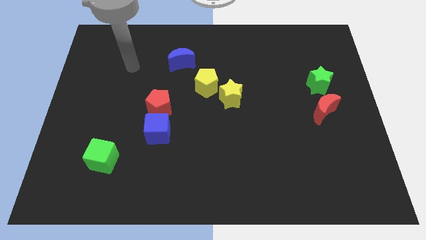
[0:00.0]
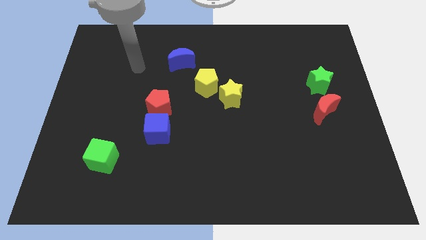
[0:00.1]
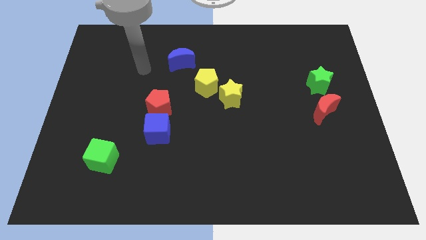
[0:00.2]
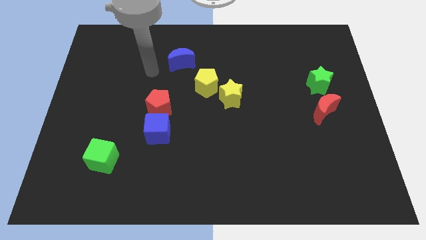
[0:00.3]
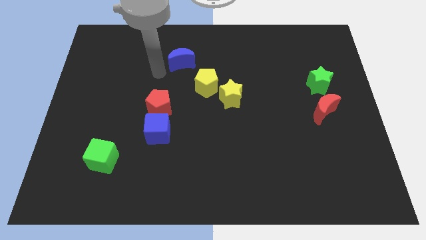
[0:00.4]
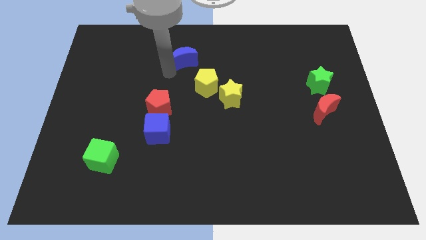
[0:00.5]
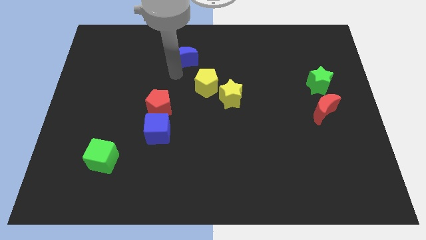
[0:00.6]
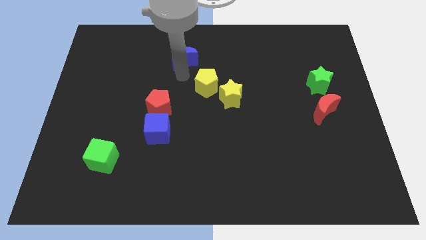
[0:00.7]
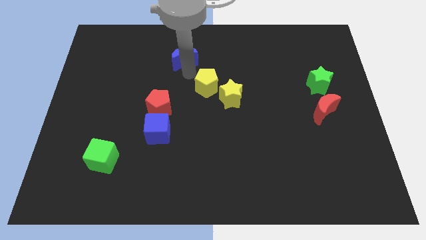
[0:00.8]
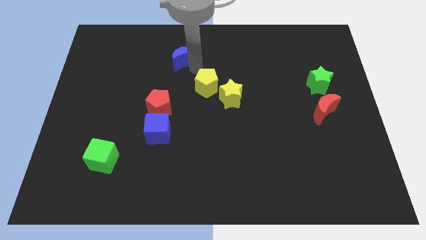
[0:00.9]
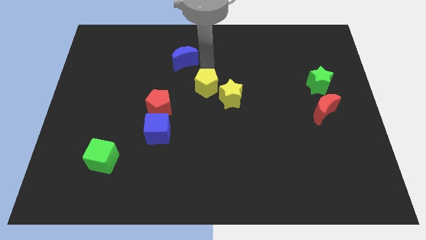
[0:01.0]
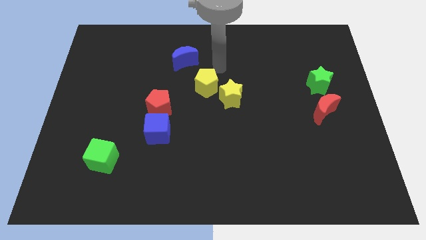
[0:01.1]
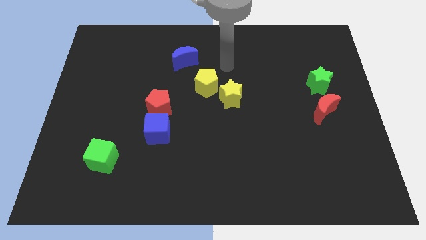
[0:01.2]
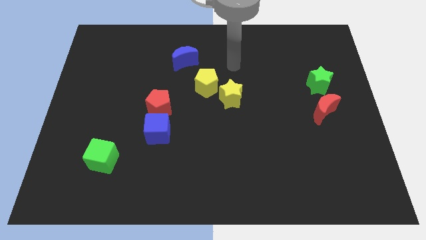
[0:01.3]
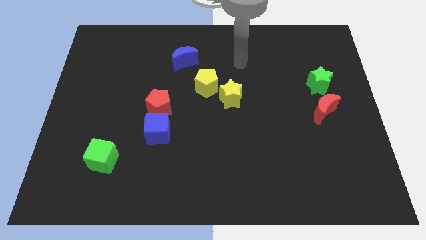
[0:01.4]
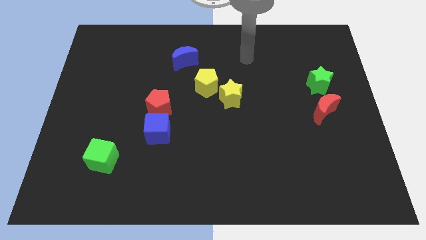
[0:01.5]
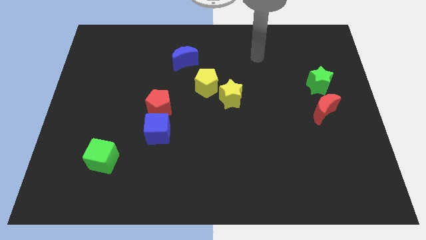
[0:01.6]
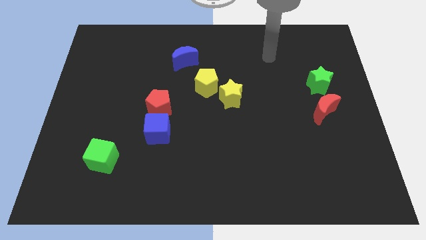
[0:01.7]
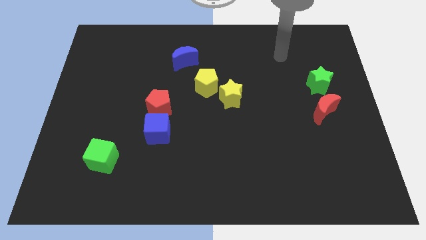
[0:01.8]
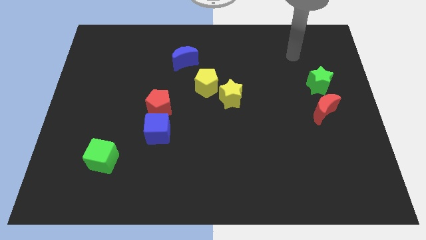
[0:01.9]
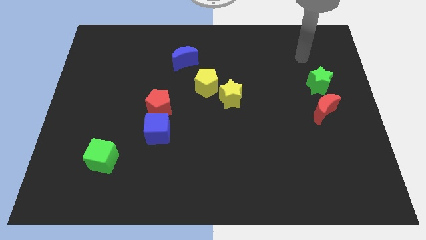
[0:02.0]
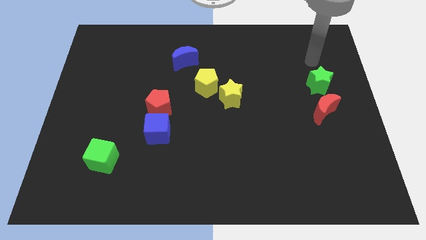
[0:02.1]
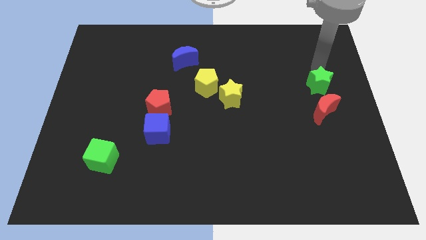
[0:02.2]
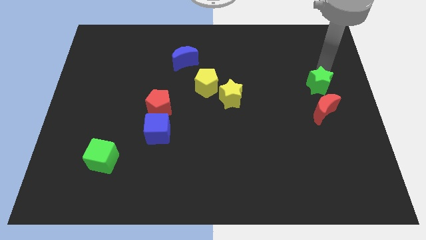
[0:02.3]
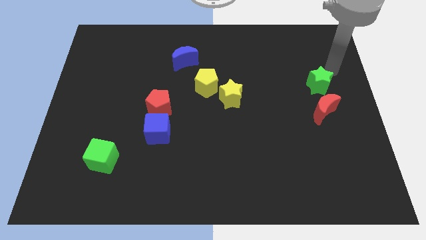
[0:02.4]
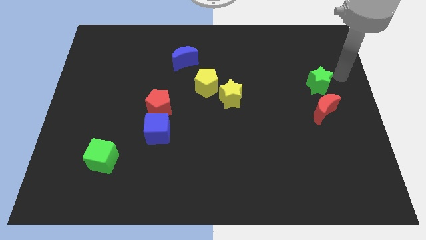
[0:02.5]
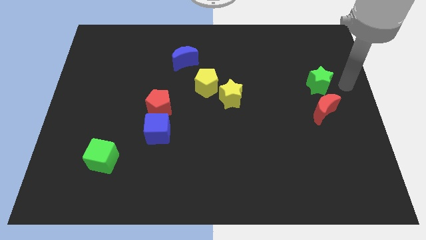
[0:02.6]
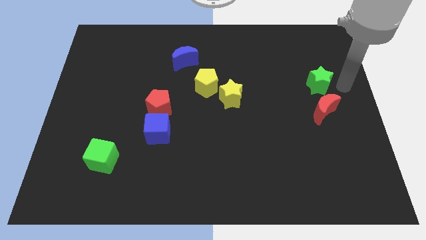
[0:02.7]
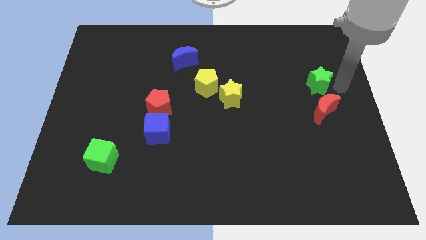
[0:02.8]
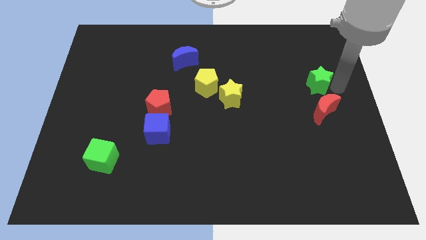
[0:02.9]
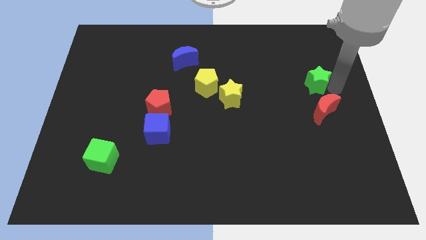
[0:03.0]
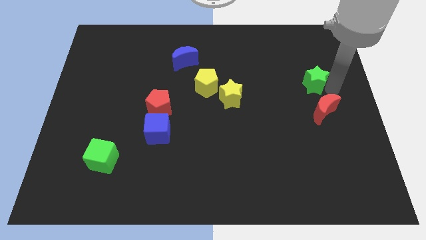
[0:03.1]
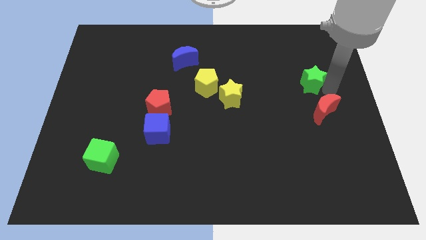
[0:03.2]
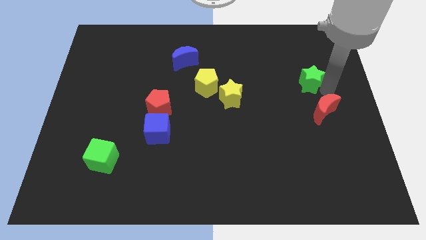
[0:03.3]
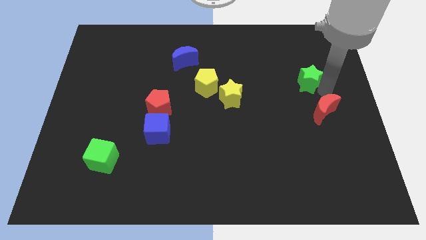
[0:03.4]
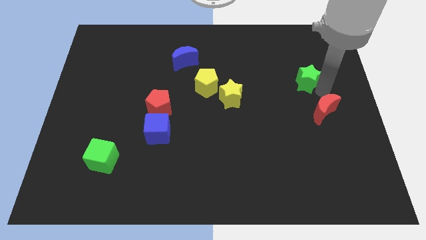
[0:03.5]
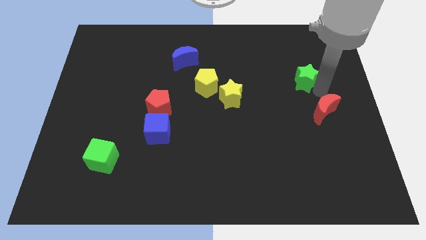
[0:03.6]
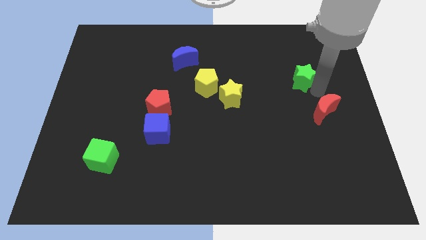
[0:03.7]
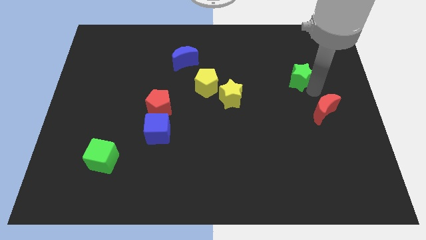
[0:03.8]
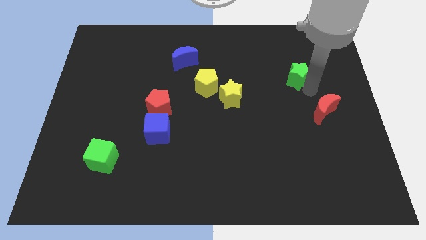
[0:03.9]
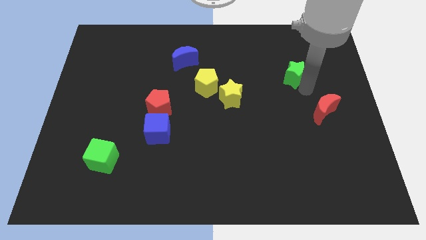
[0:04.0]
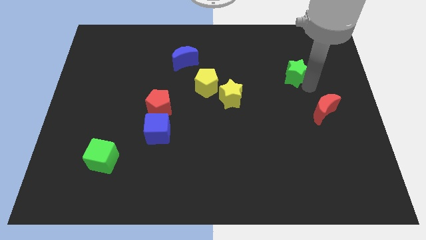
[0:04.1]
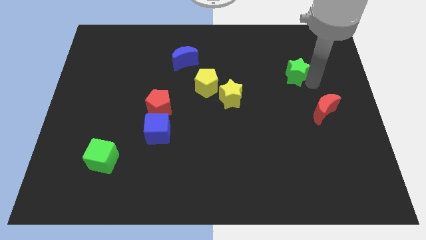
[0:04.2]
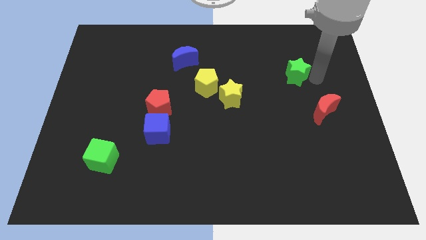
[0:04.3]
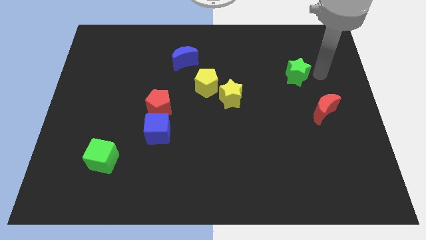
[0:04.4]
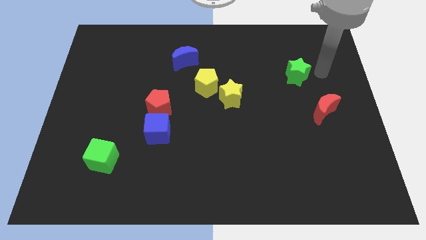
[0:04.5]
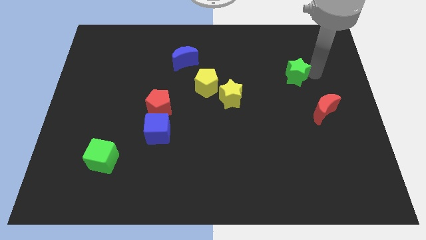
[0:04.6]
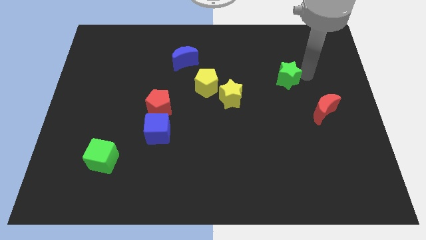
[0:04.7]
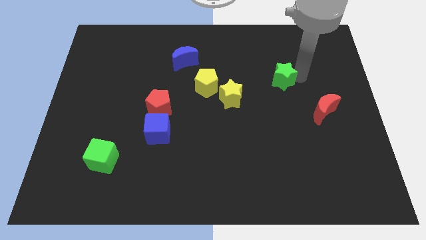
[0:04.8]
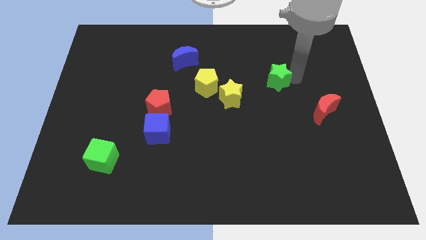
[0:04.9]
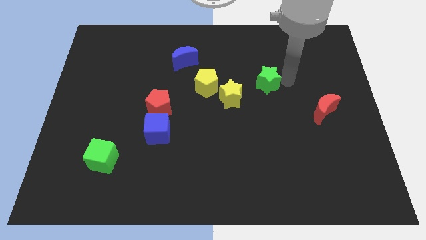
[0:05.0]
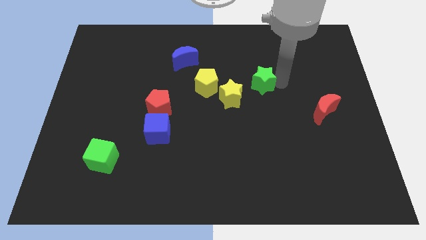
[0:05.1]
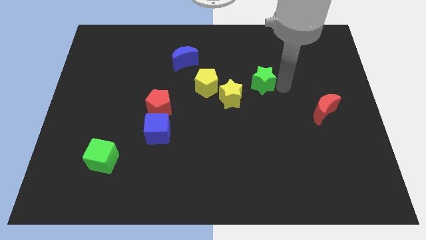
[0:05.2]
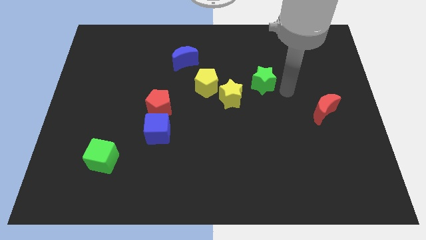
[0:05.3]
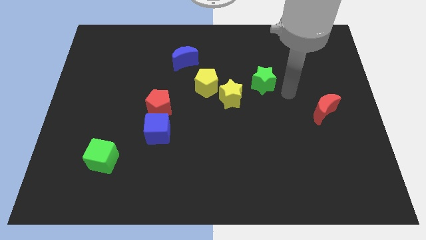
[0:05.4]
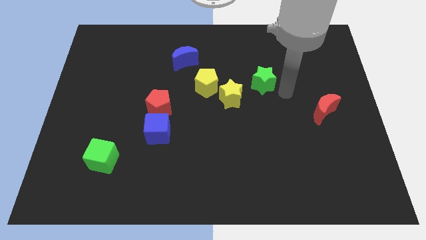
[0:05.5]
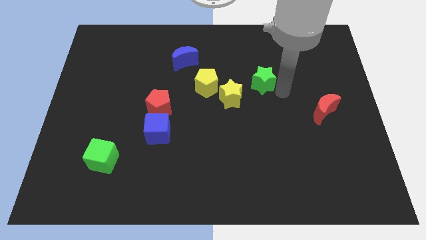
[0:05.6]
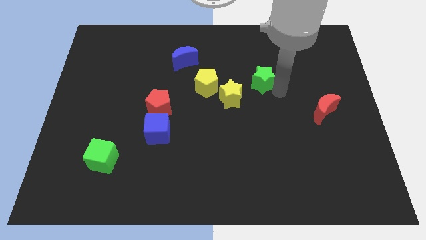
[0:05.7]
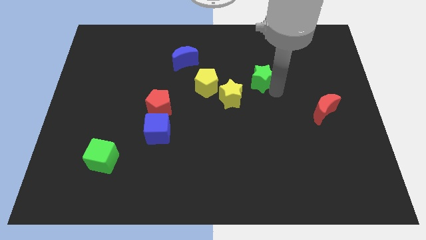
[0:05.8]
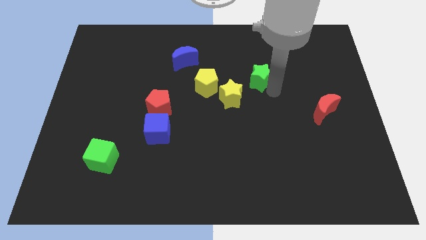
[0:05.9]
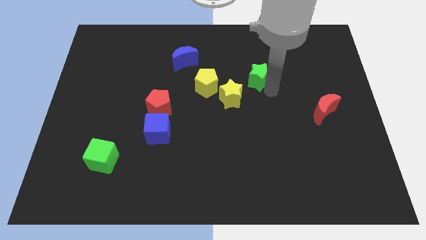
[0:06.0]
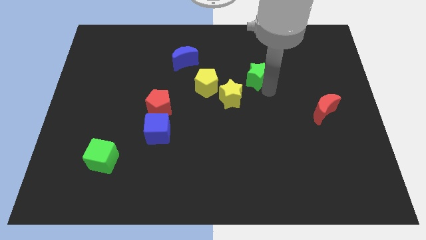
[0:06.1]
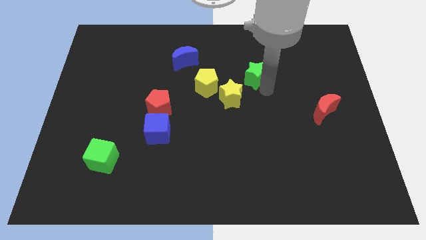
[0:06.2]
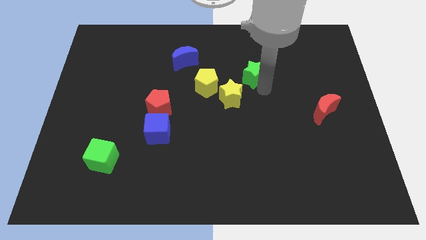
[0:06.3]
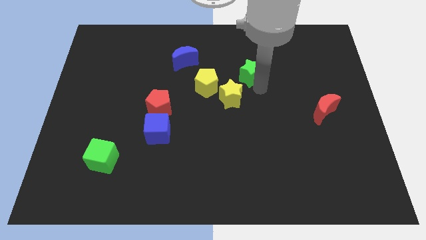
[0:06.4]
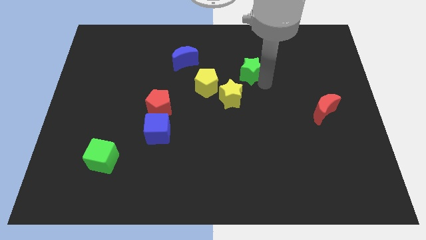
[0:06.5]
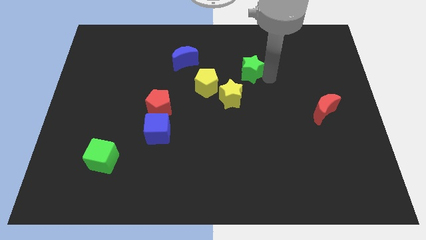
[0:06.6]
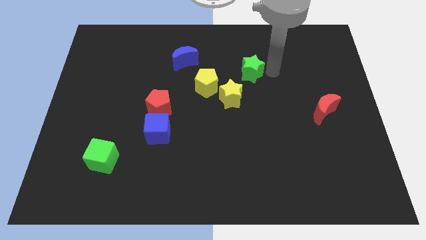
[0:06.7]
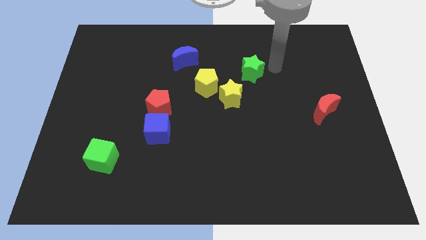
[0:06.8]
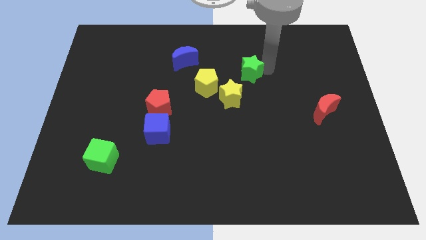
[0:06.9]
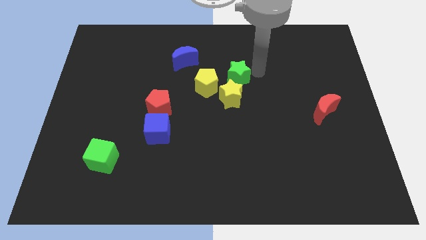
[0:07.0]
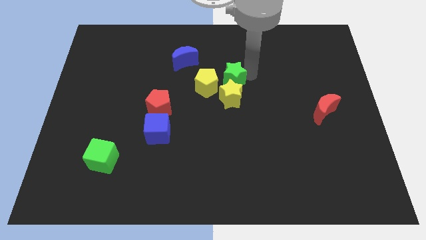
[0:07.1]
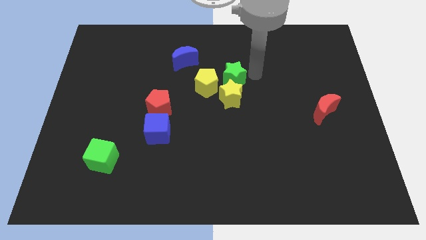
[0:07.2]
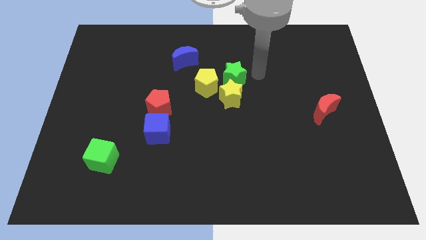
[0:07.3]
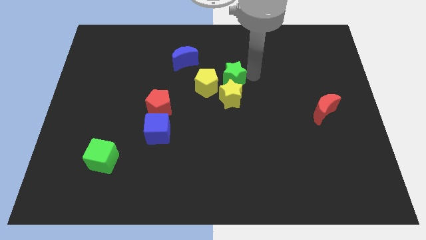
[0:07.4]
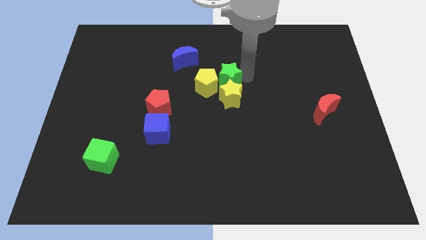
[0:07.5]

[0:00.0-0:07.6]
move the green star to the yellow pentagon
